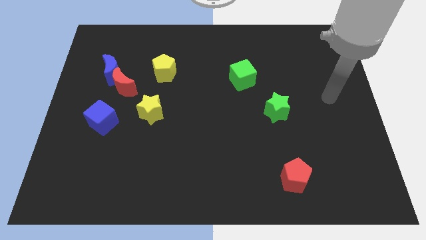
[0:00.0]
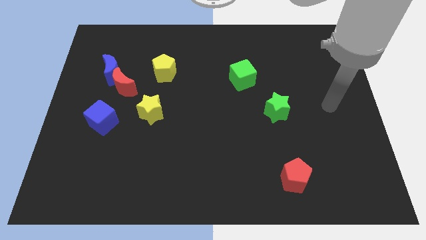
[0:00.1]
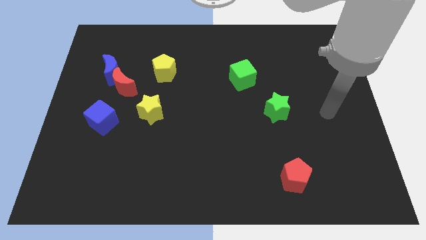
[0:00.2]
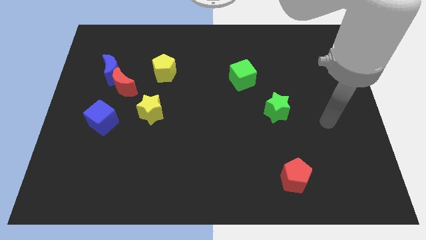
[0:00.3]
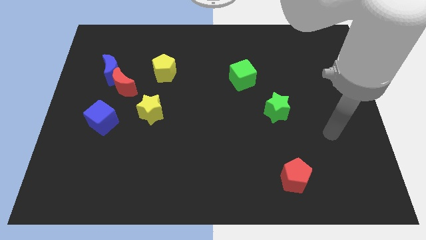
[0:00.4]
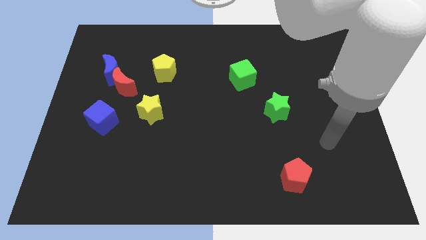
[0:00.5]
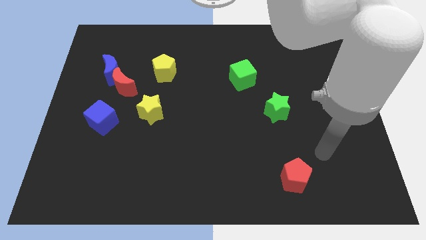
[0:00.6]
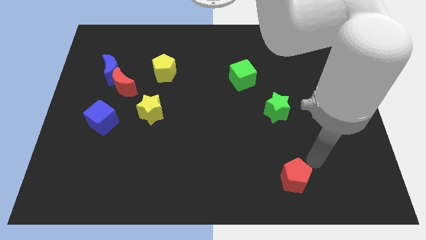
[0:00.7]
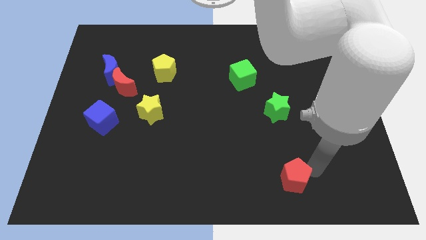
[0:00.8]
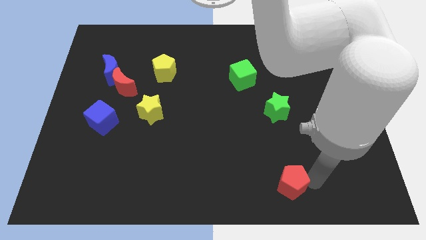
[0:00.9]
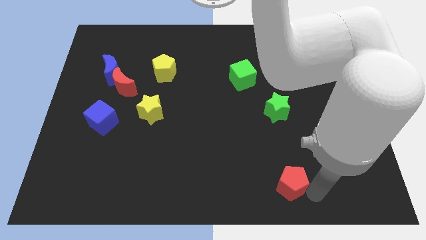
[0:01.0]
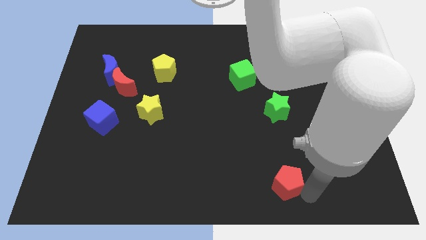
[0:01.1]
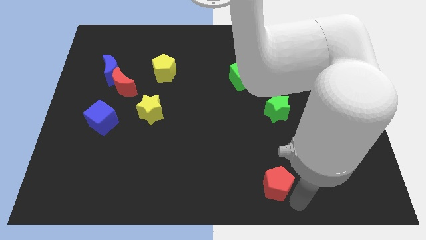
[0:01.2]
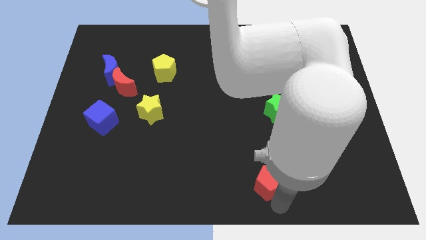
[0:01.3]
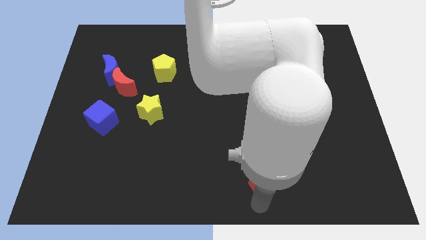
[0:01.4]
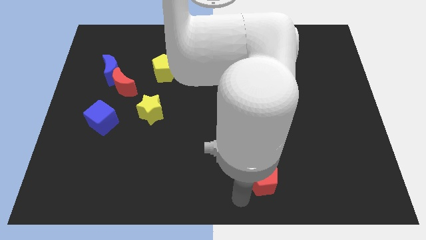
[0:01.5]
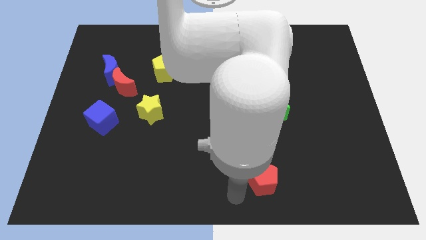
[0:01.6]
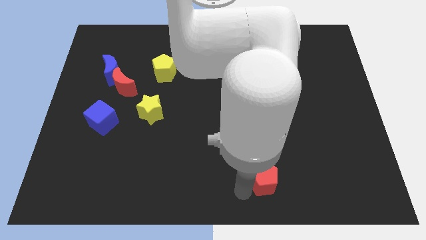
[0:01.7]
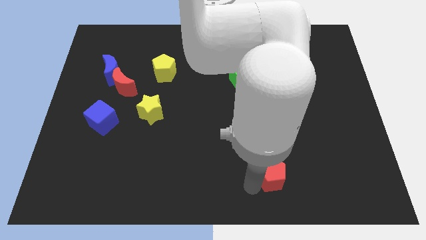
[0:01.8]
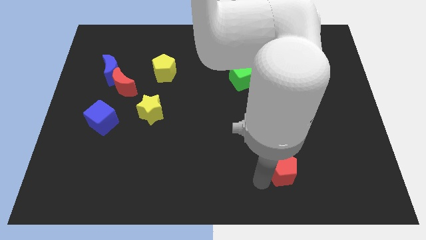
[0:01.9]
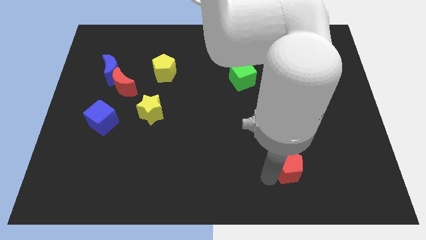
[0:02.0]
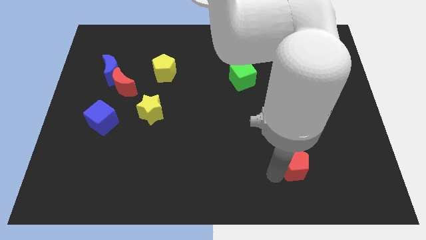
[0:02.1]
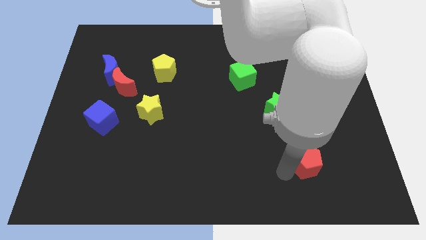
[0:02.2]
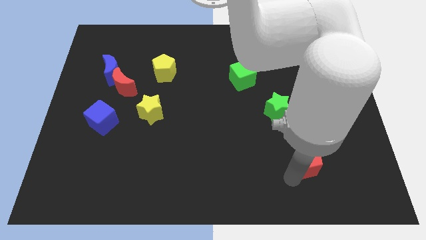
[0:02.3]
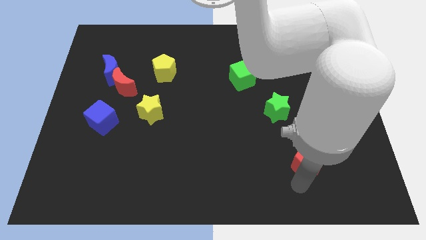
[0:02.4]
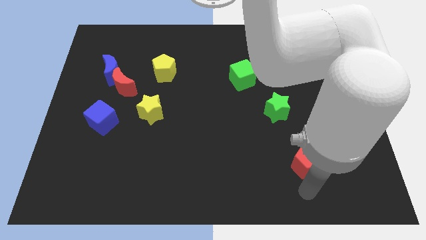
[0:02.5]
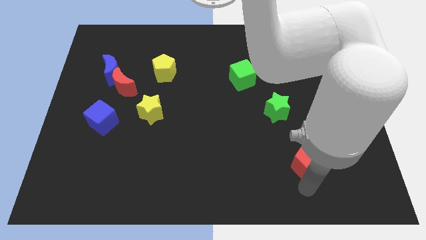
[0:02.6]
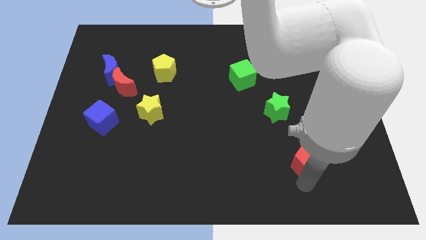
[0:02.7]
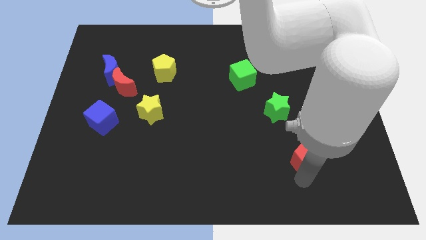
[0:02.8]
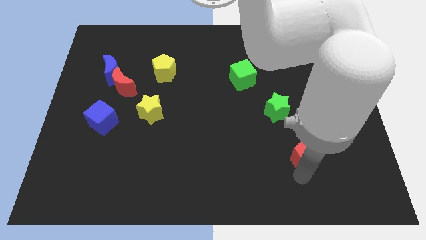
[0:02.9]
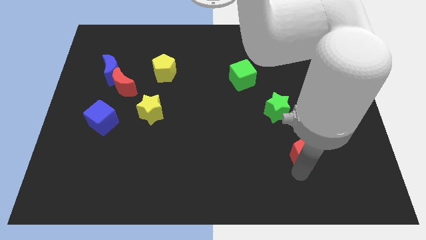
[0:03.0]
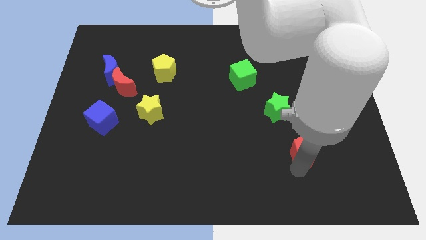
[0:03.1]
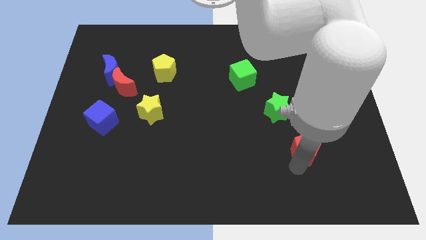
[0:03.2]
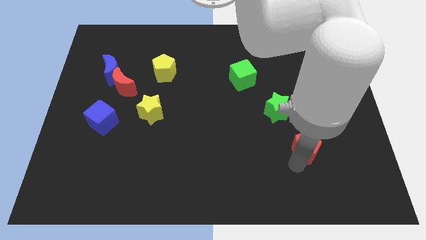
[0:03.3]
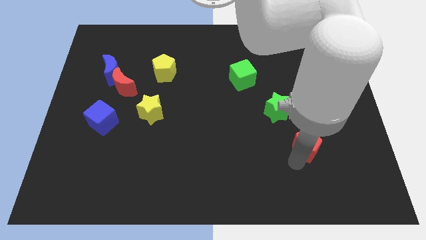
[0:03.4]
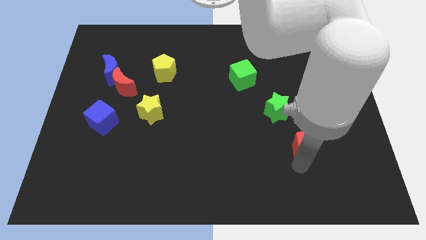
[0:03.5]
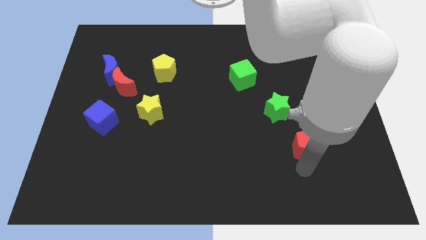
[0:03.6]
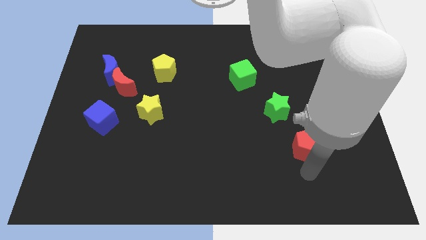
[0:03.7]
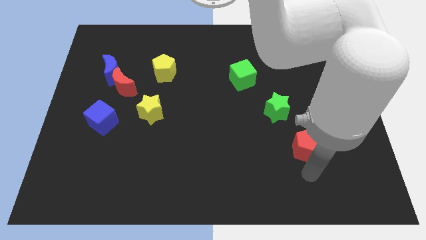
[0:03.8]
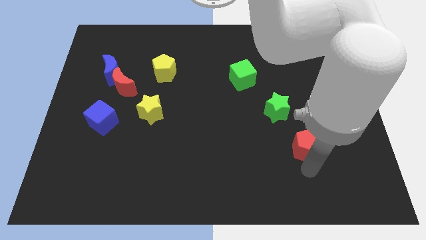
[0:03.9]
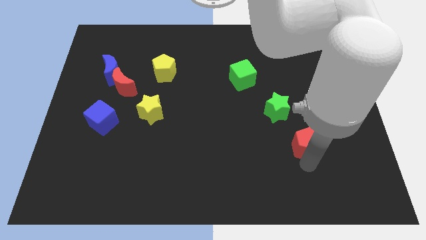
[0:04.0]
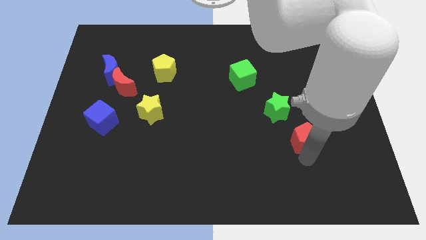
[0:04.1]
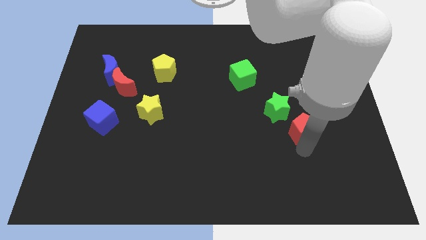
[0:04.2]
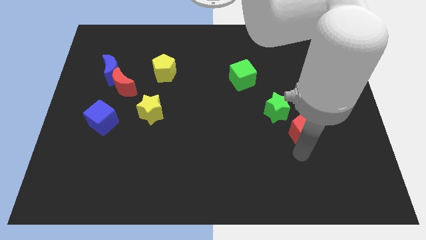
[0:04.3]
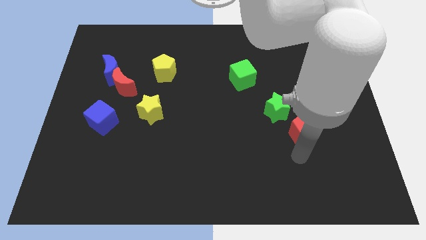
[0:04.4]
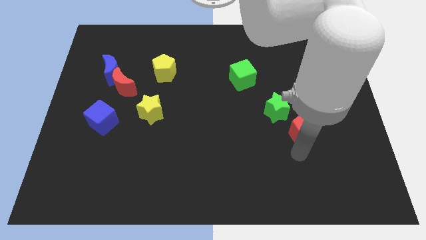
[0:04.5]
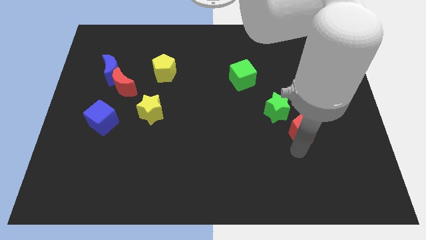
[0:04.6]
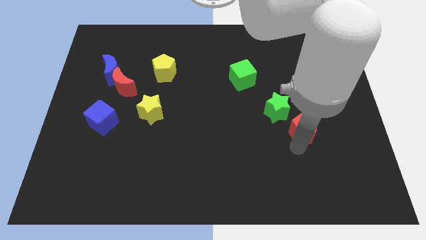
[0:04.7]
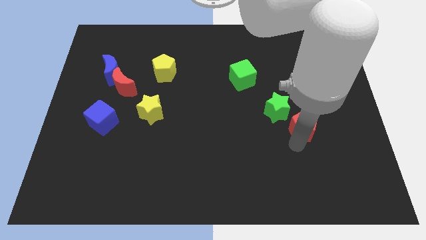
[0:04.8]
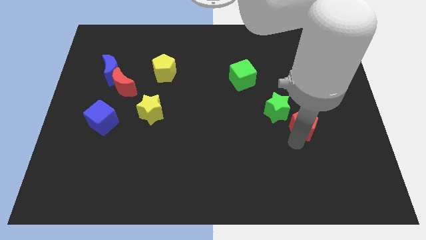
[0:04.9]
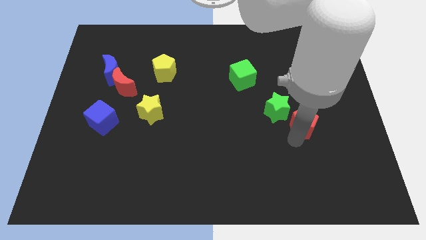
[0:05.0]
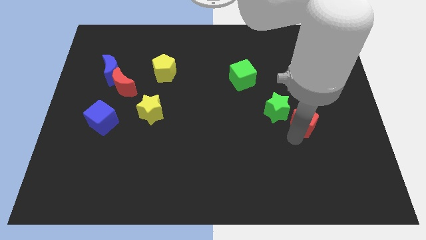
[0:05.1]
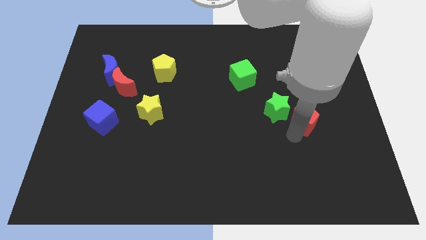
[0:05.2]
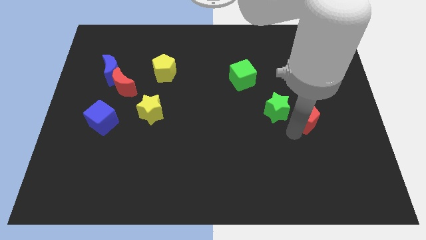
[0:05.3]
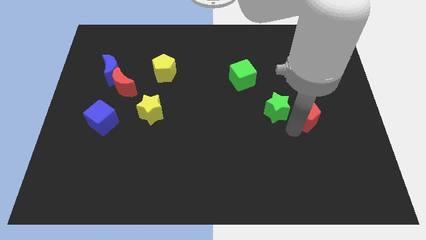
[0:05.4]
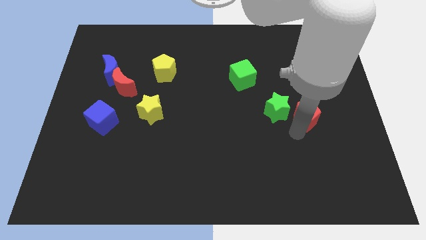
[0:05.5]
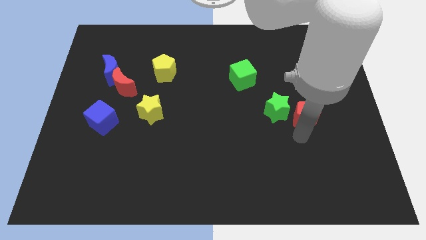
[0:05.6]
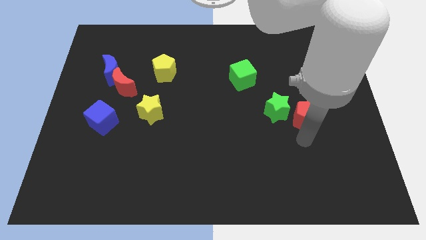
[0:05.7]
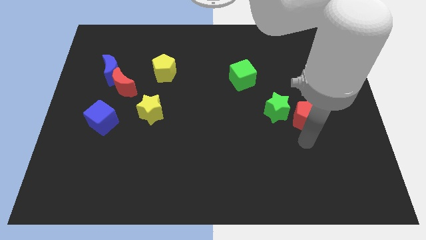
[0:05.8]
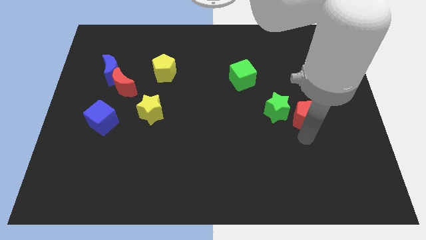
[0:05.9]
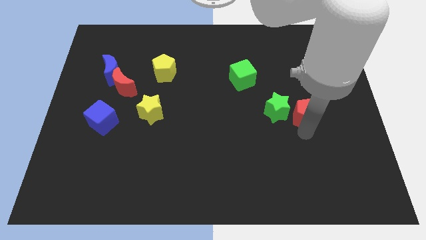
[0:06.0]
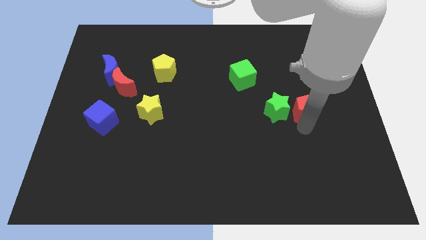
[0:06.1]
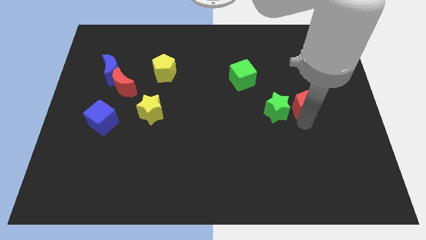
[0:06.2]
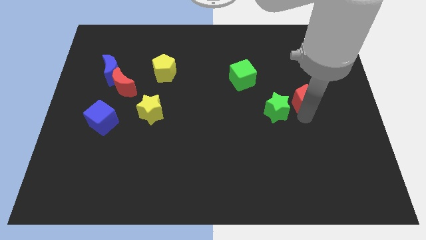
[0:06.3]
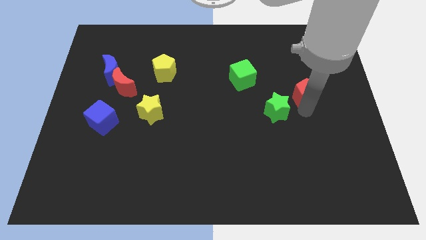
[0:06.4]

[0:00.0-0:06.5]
move the red pentagon up

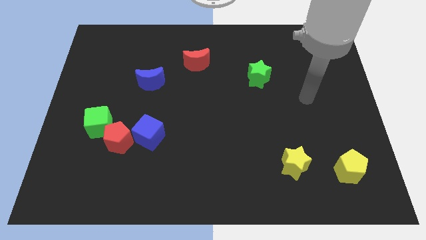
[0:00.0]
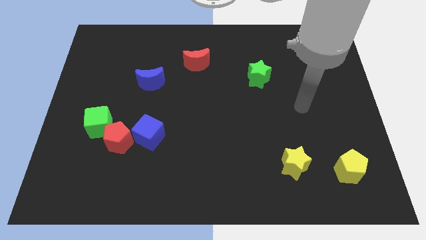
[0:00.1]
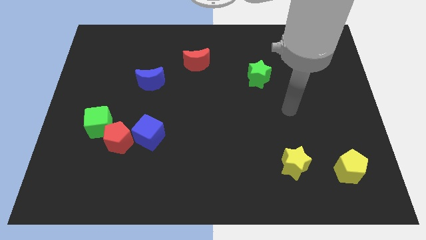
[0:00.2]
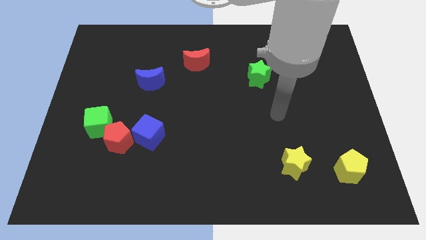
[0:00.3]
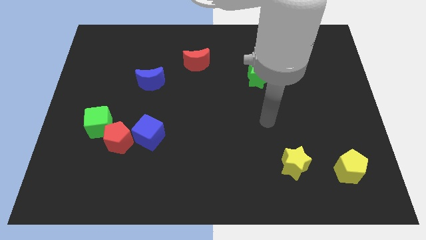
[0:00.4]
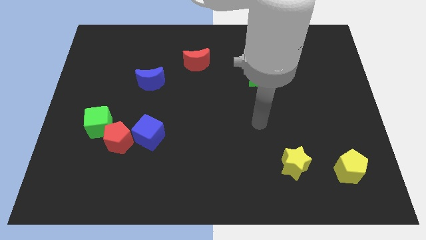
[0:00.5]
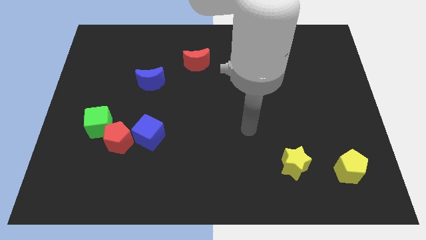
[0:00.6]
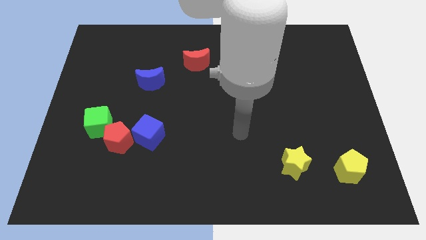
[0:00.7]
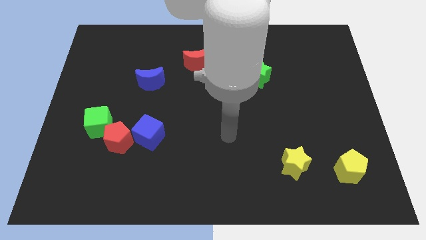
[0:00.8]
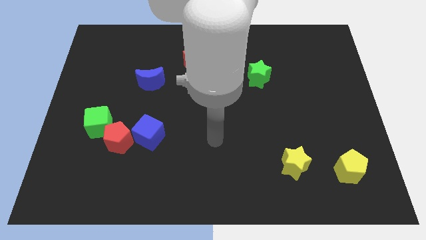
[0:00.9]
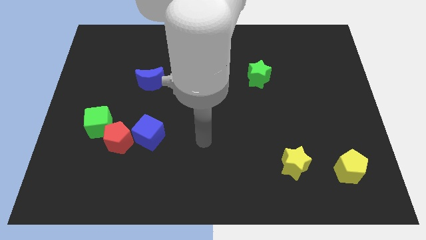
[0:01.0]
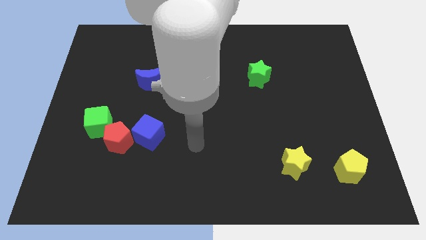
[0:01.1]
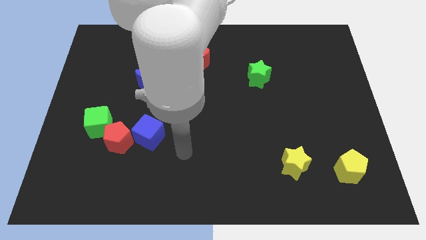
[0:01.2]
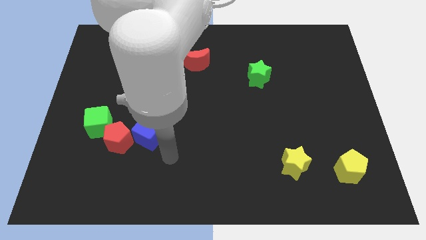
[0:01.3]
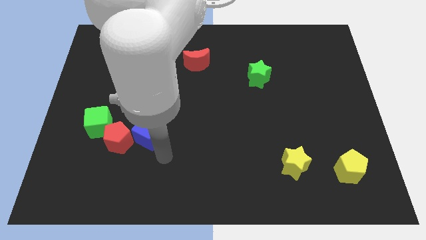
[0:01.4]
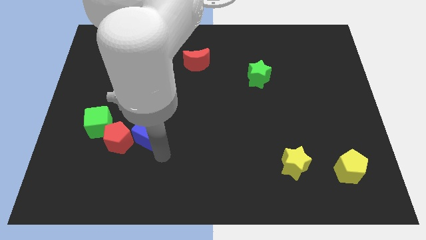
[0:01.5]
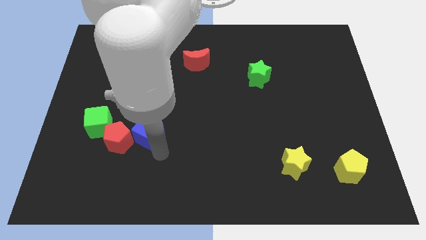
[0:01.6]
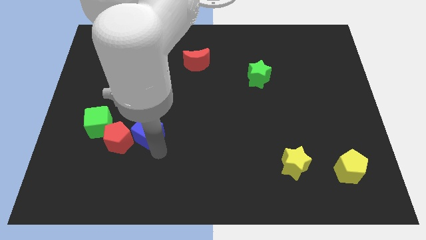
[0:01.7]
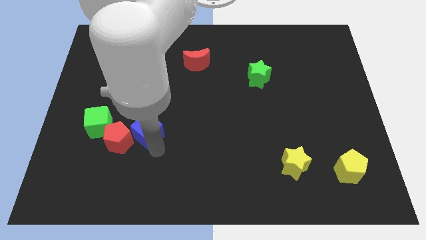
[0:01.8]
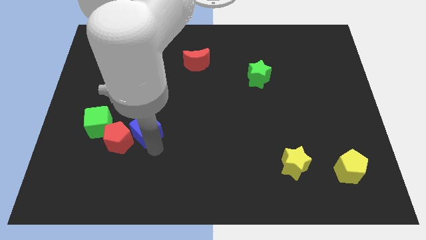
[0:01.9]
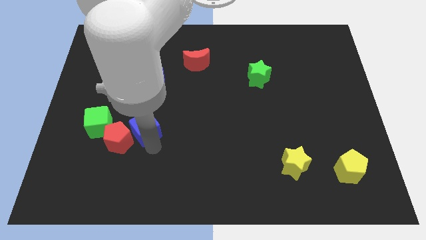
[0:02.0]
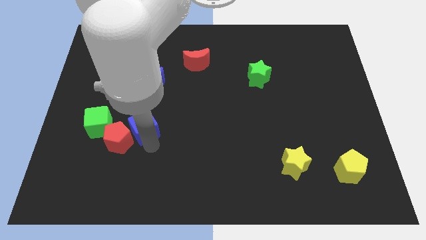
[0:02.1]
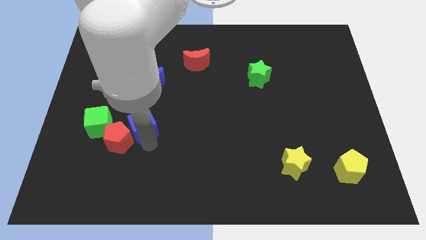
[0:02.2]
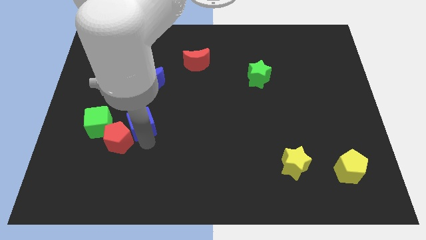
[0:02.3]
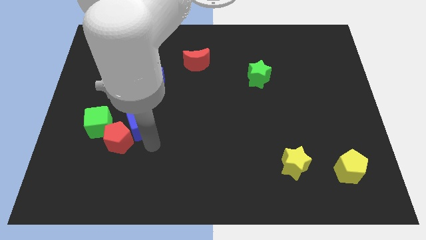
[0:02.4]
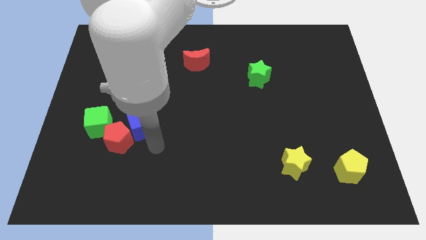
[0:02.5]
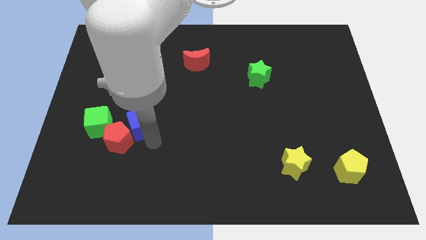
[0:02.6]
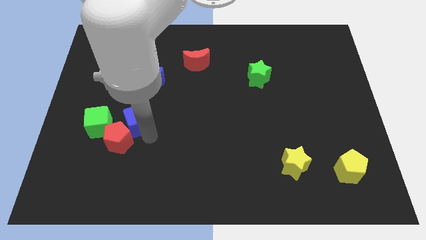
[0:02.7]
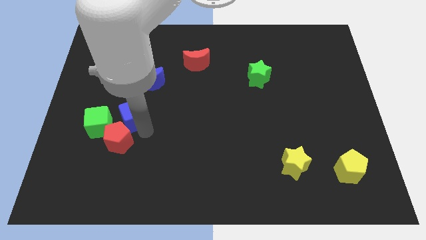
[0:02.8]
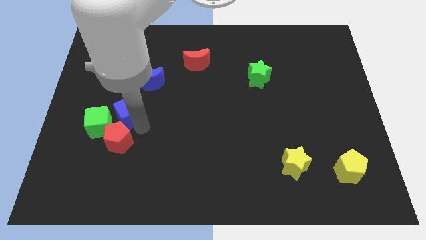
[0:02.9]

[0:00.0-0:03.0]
slide the blue cube diagonally upwards and to the left a little bit
